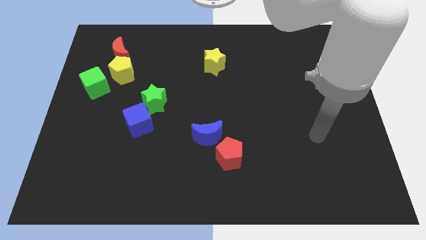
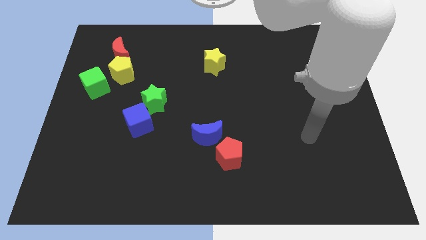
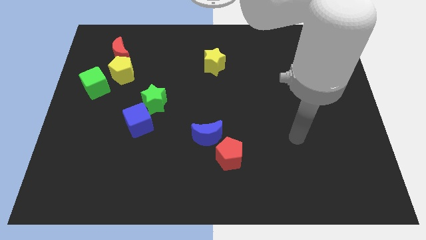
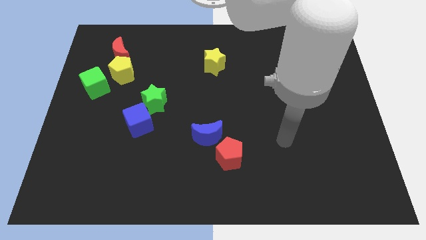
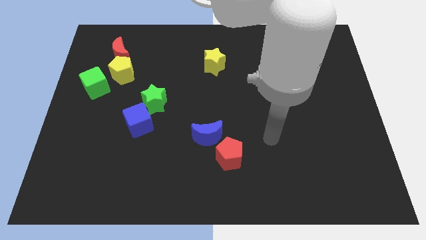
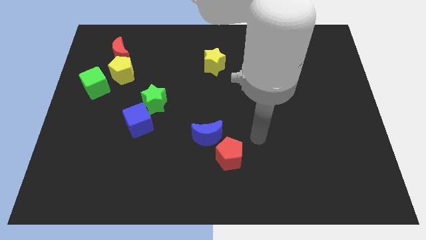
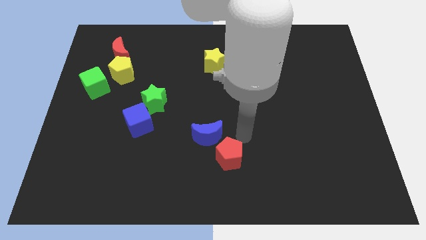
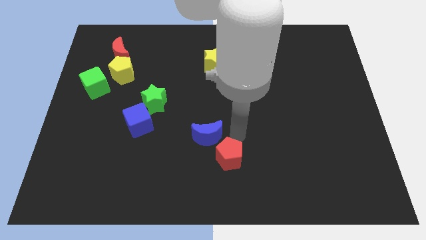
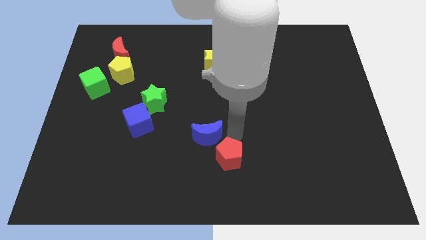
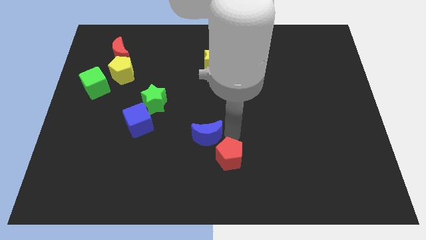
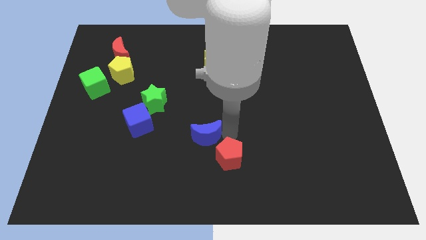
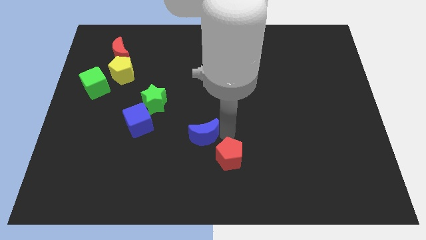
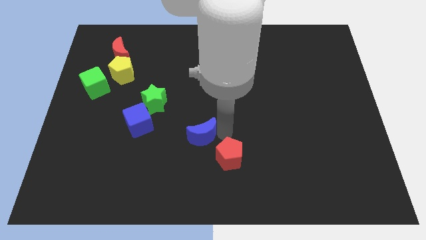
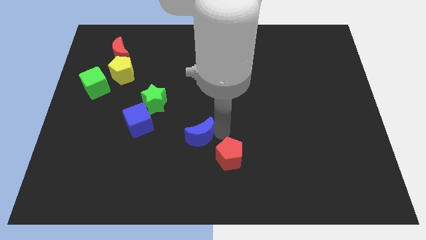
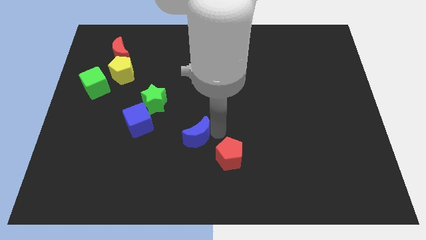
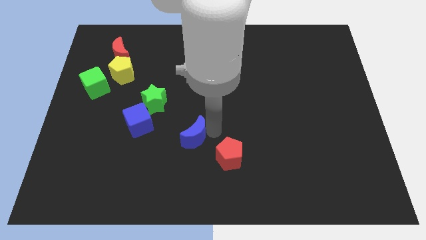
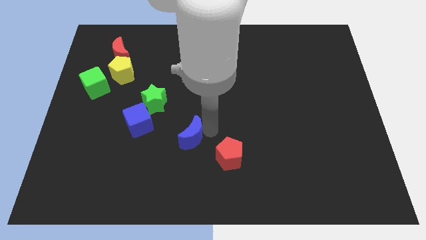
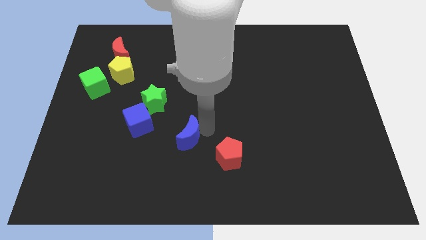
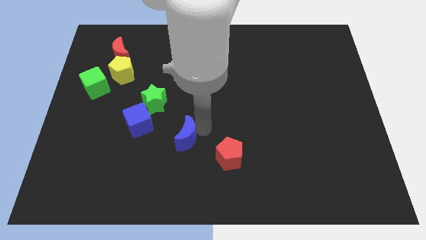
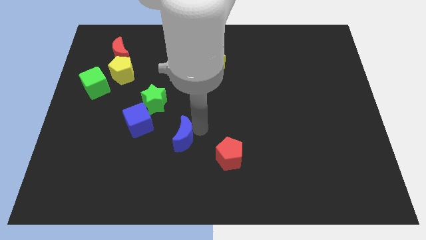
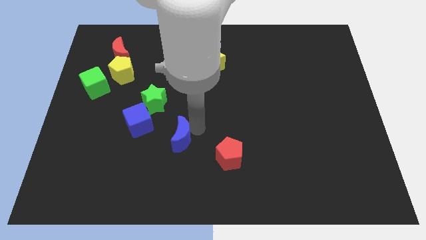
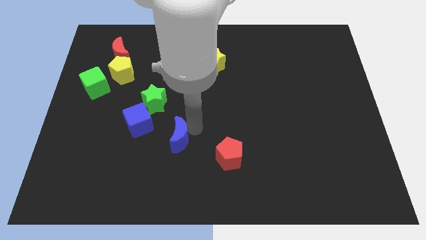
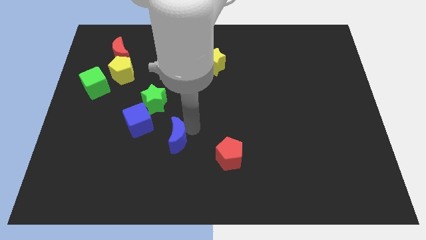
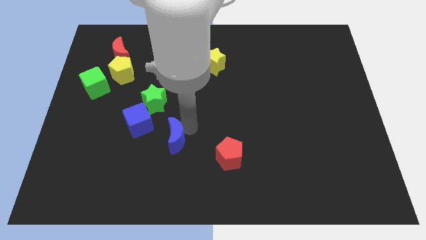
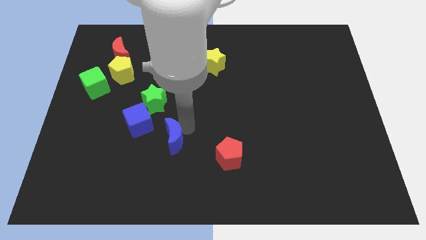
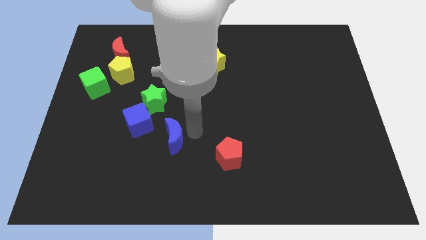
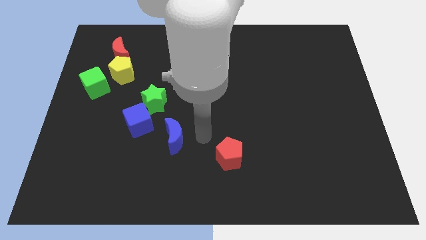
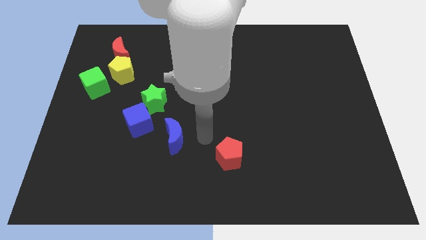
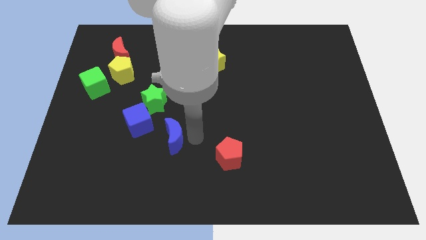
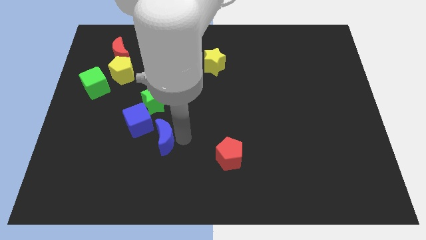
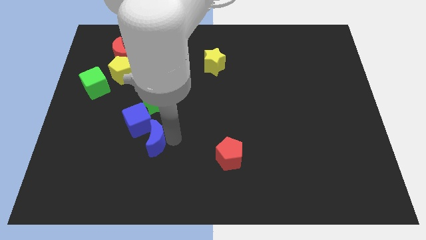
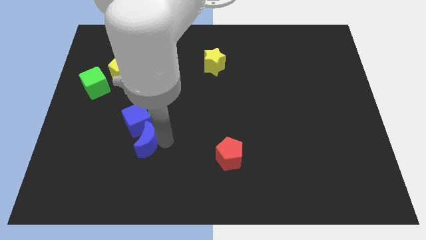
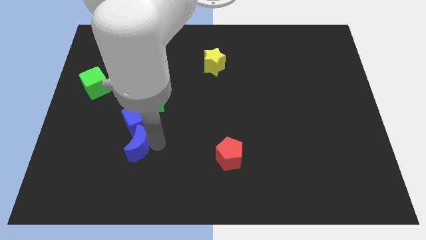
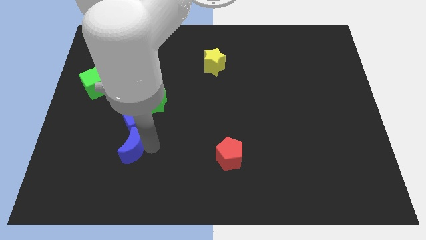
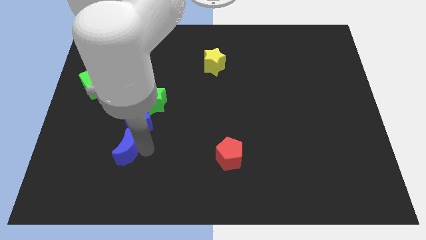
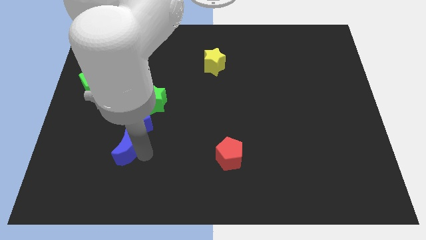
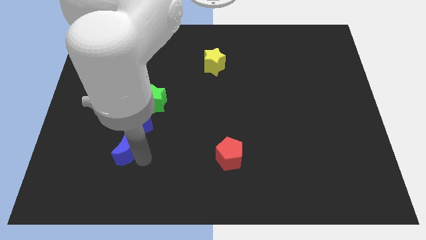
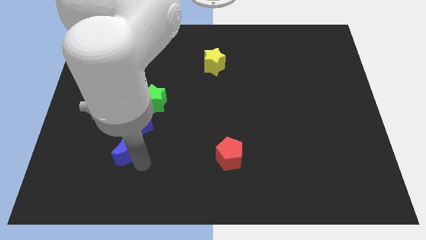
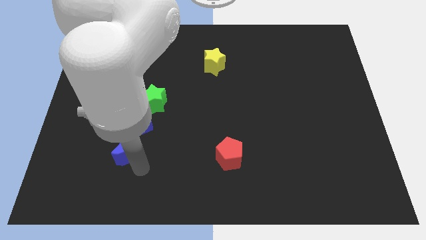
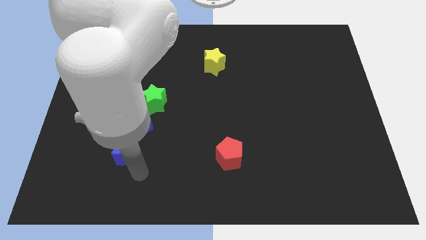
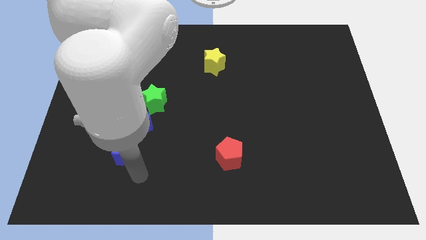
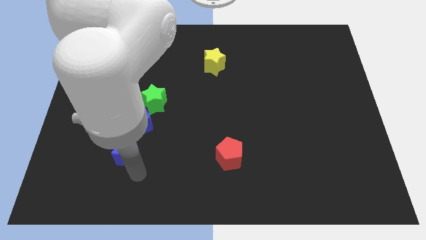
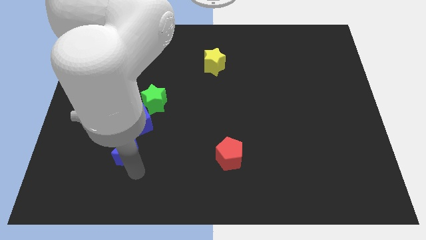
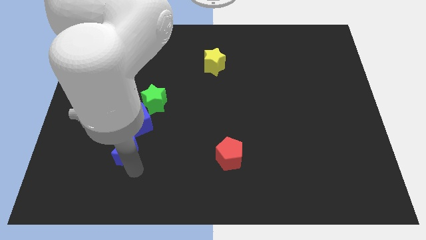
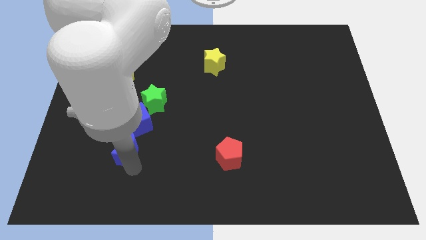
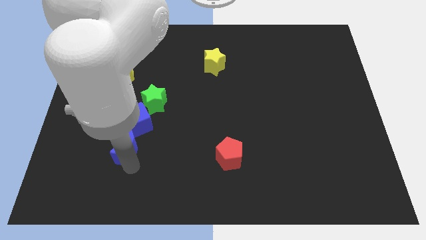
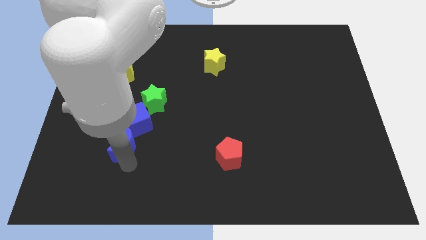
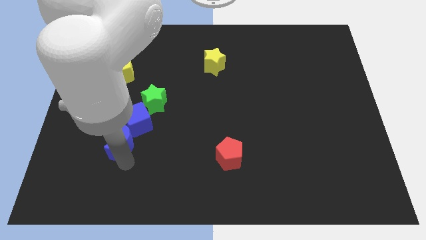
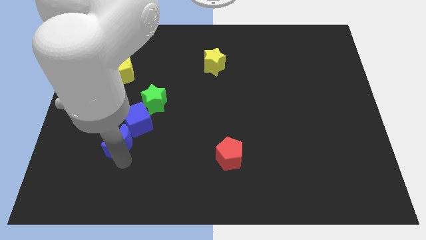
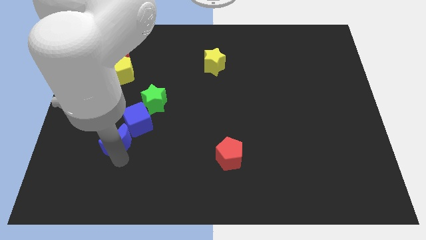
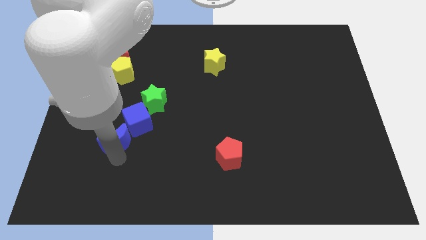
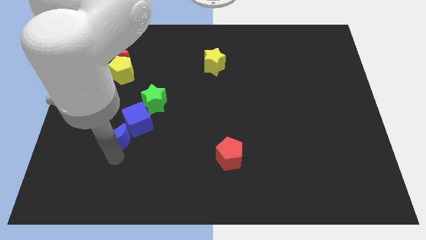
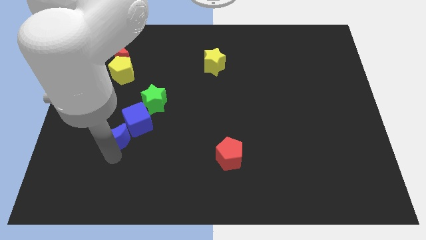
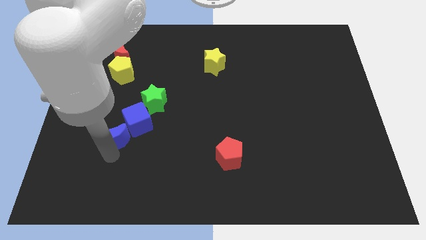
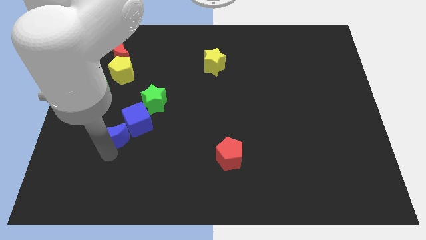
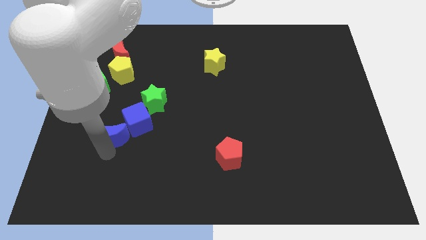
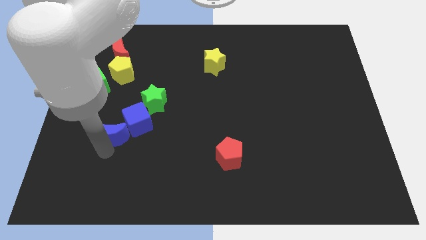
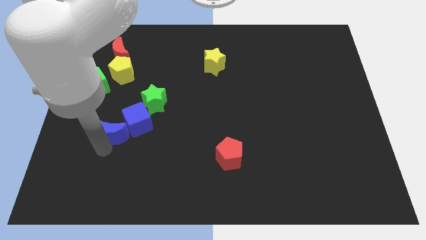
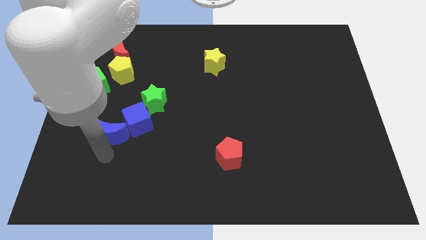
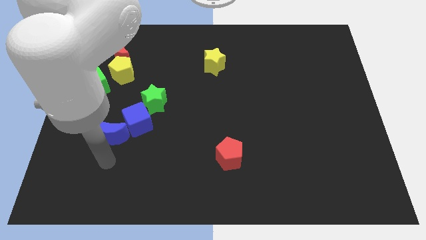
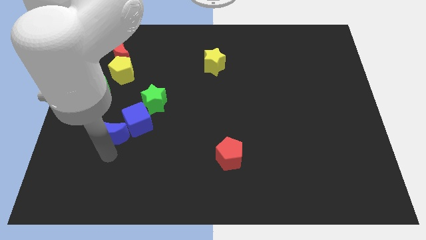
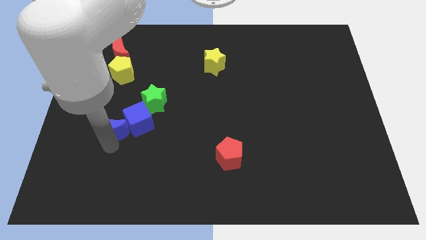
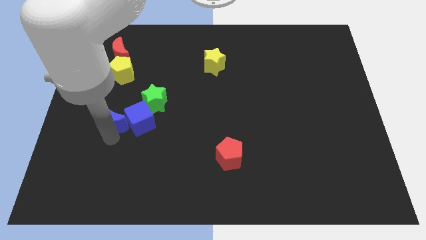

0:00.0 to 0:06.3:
push the blue moon to the top left side of the blue cube
